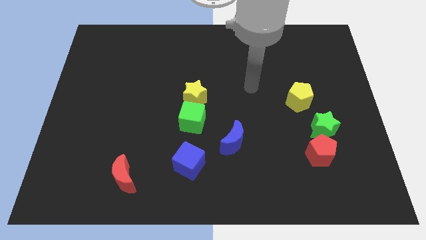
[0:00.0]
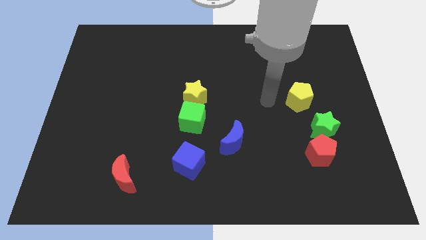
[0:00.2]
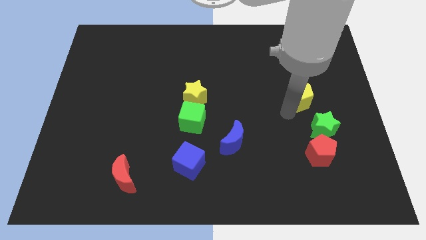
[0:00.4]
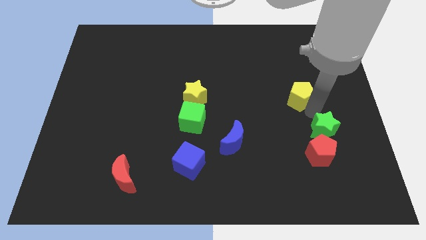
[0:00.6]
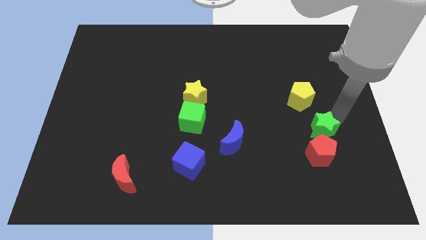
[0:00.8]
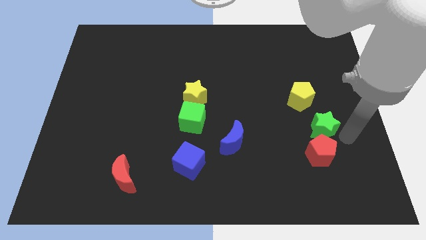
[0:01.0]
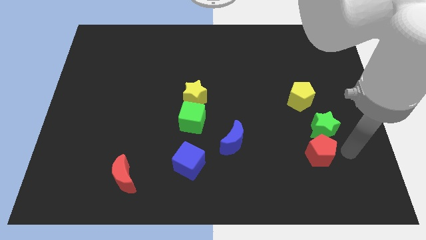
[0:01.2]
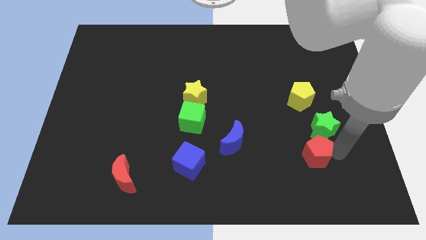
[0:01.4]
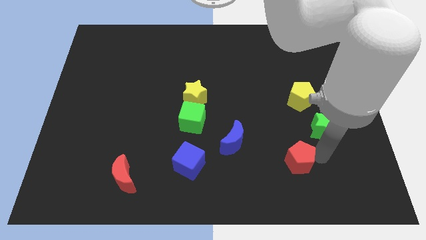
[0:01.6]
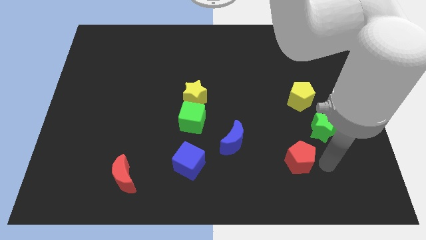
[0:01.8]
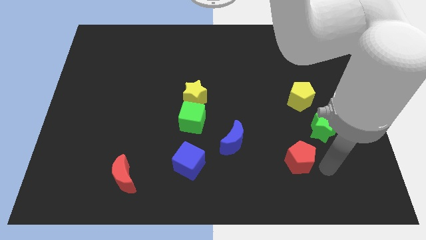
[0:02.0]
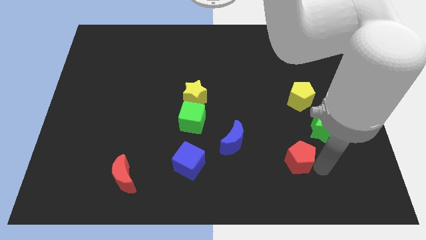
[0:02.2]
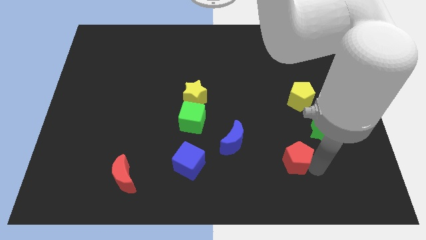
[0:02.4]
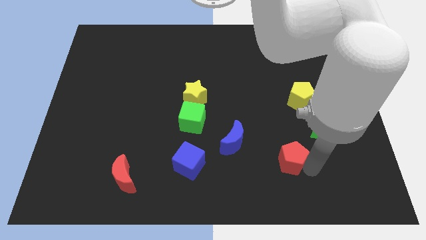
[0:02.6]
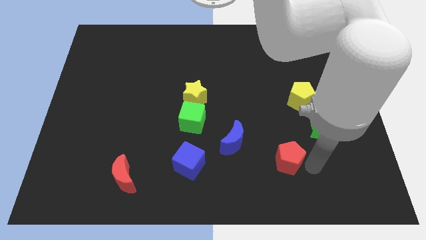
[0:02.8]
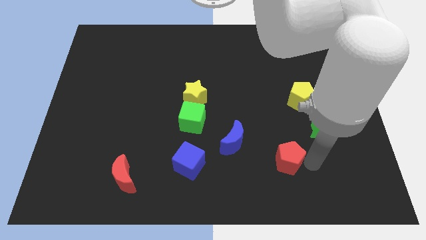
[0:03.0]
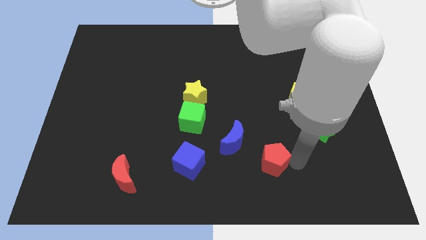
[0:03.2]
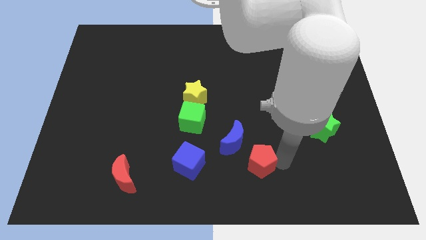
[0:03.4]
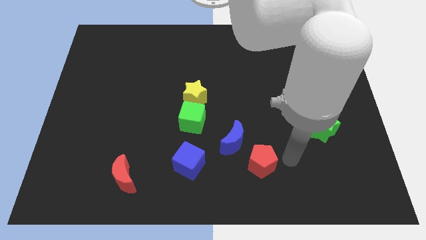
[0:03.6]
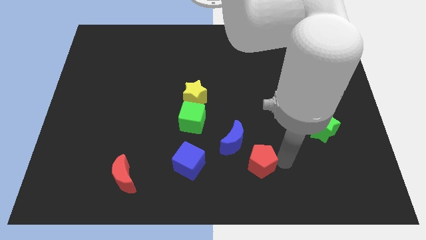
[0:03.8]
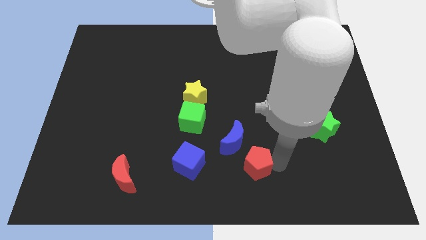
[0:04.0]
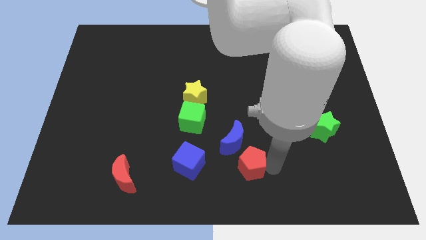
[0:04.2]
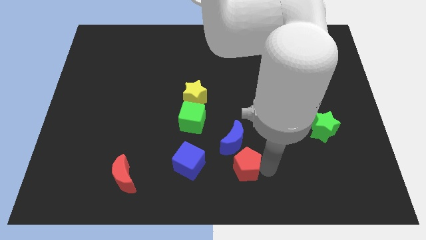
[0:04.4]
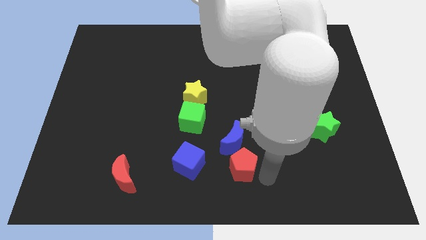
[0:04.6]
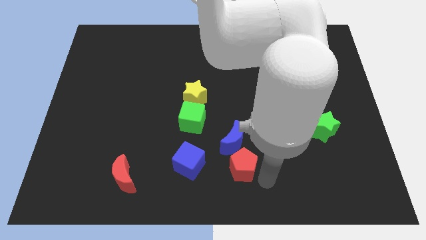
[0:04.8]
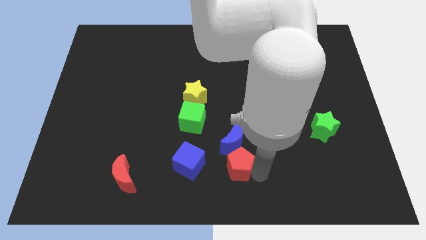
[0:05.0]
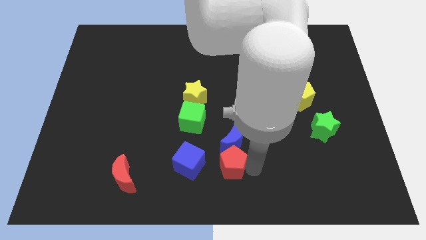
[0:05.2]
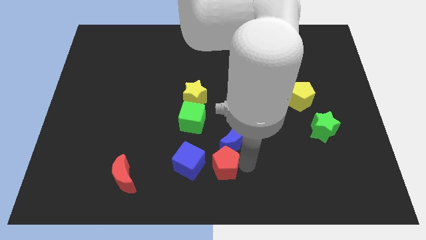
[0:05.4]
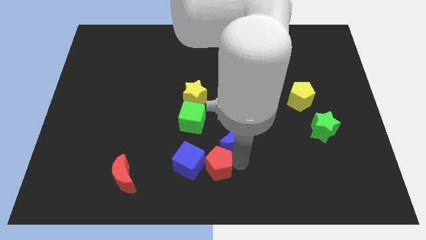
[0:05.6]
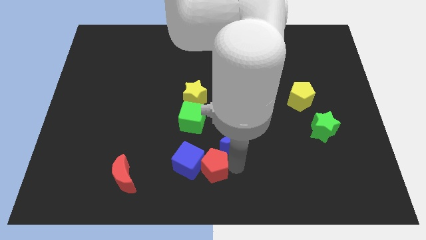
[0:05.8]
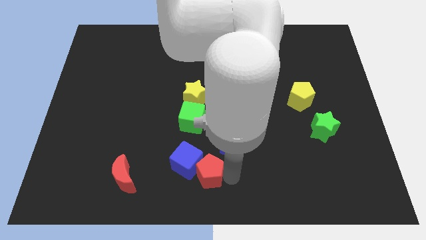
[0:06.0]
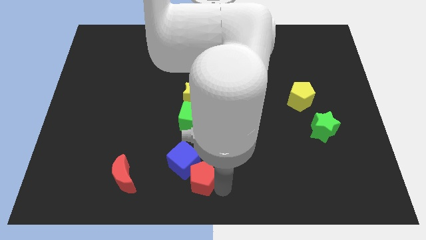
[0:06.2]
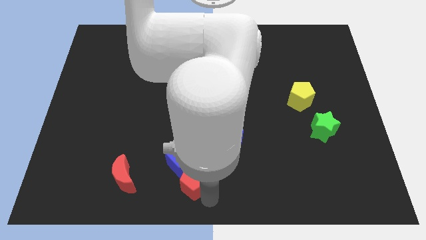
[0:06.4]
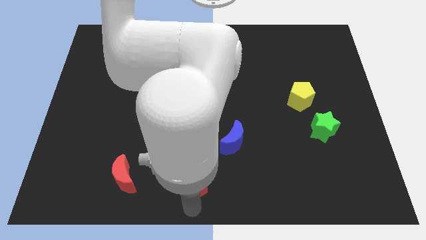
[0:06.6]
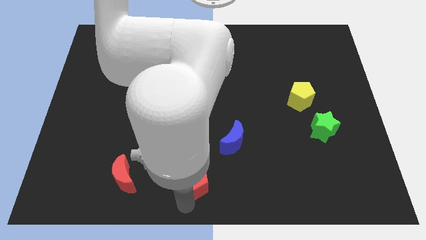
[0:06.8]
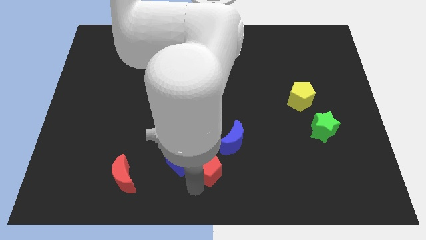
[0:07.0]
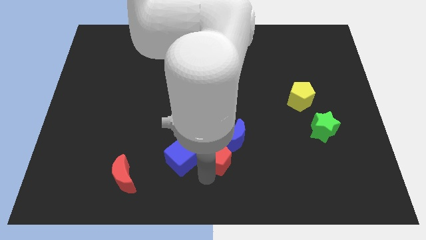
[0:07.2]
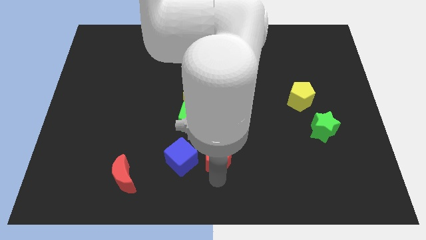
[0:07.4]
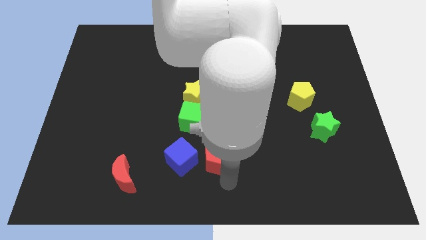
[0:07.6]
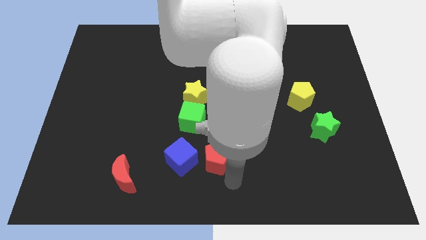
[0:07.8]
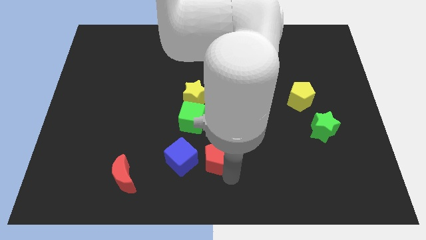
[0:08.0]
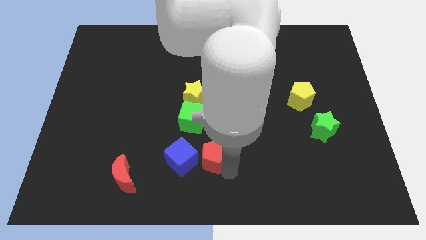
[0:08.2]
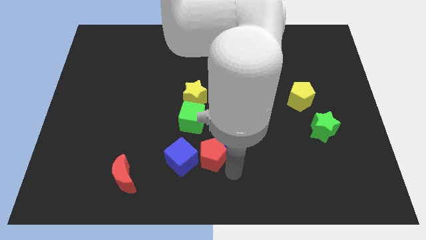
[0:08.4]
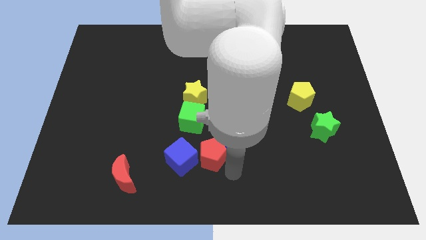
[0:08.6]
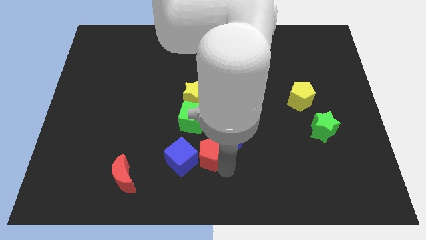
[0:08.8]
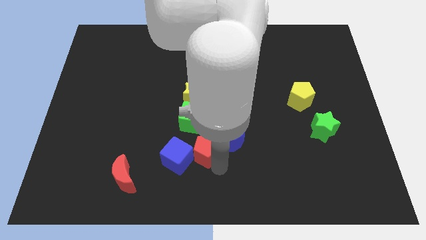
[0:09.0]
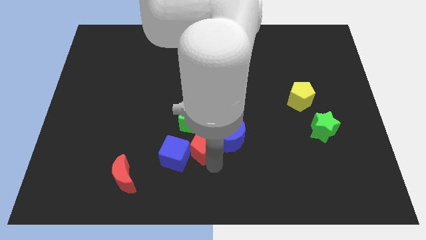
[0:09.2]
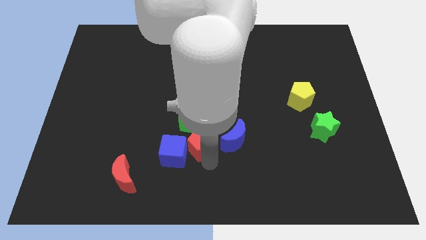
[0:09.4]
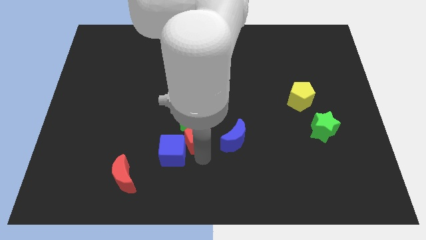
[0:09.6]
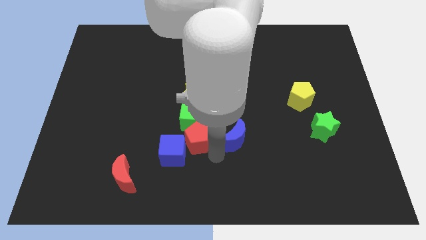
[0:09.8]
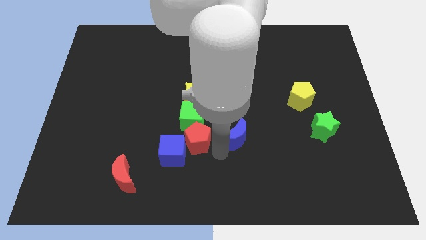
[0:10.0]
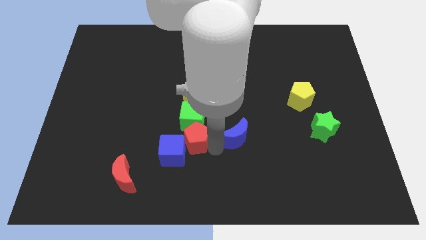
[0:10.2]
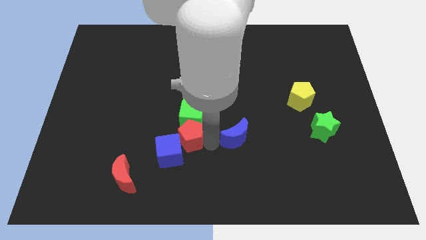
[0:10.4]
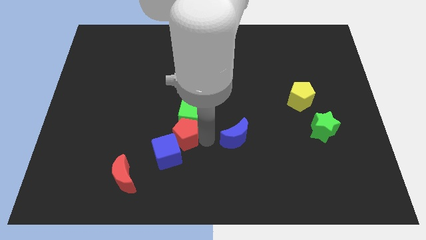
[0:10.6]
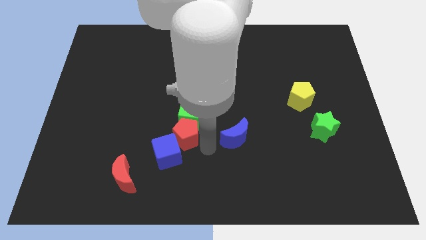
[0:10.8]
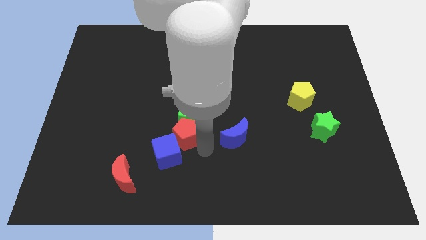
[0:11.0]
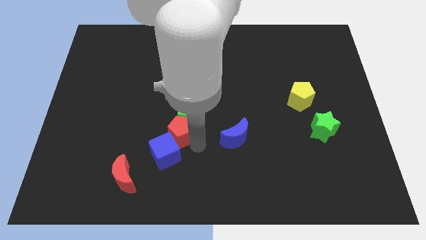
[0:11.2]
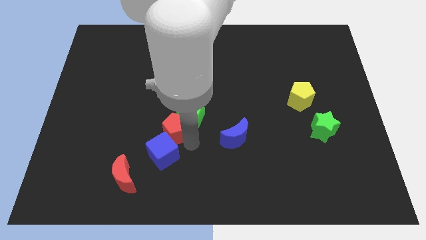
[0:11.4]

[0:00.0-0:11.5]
push the red pentagon to the left of the green cube
